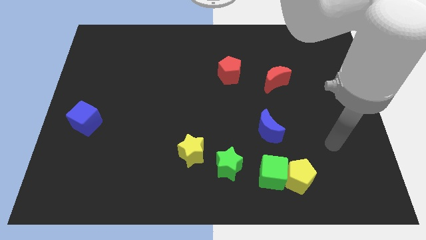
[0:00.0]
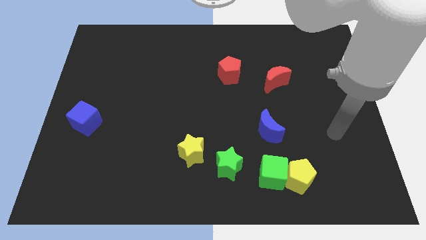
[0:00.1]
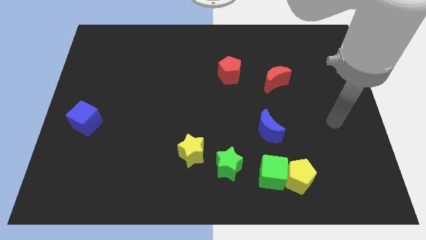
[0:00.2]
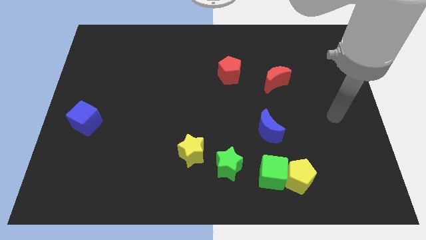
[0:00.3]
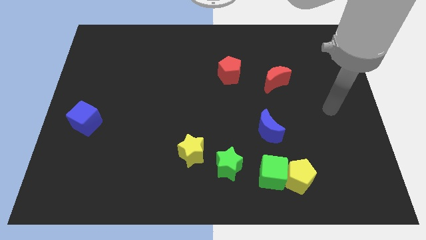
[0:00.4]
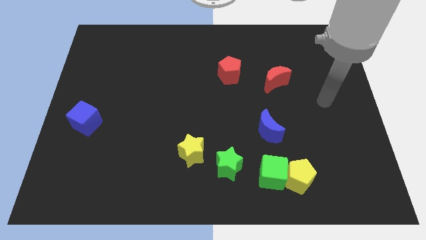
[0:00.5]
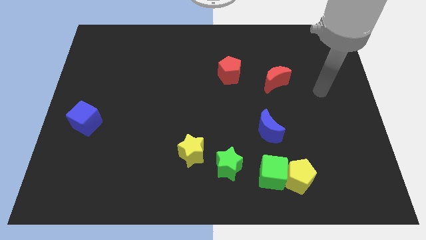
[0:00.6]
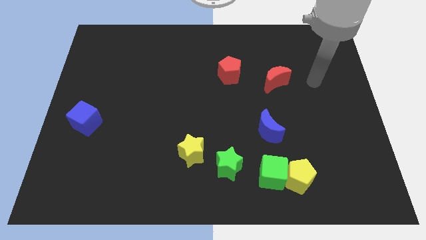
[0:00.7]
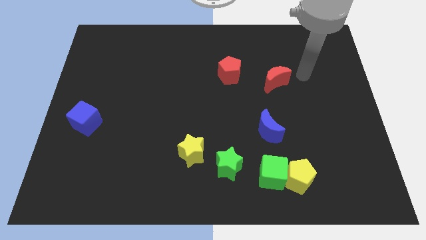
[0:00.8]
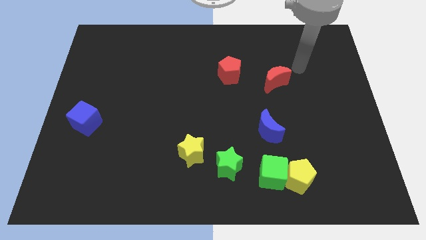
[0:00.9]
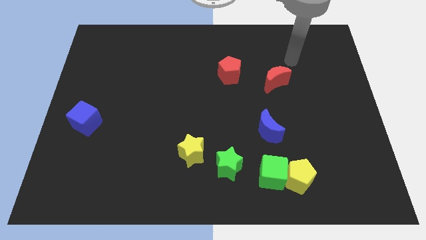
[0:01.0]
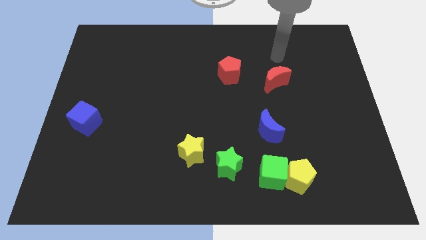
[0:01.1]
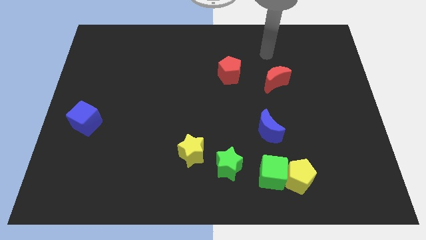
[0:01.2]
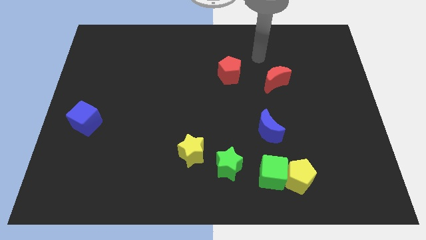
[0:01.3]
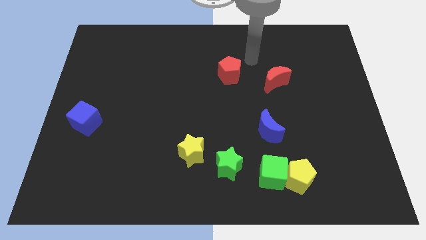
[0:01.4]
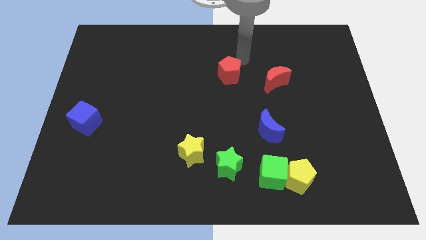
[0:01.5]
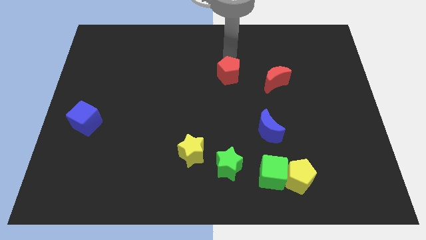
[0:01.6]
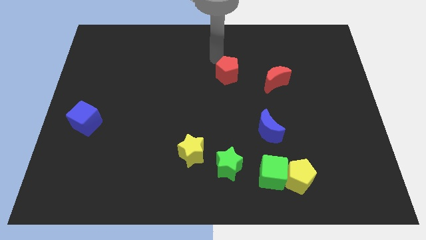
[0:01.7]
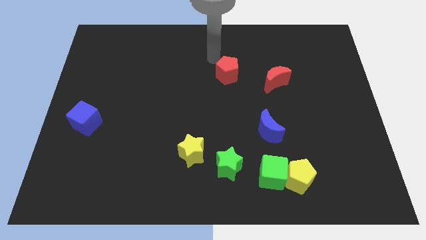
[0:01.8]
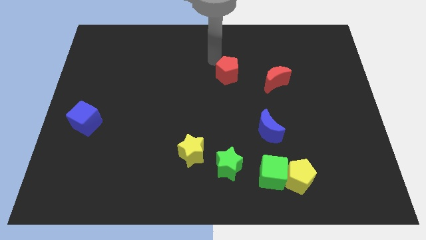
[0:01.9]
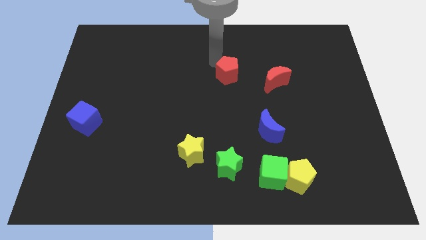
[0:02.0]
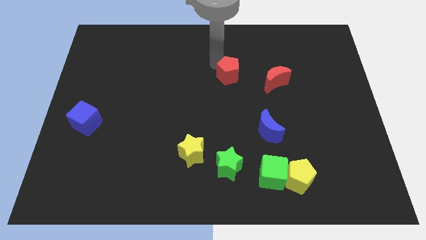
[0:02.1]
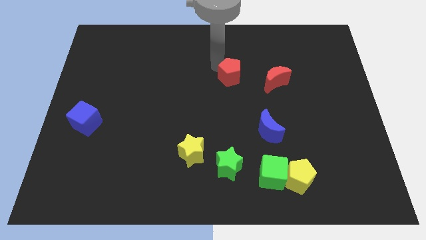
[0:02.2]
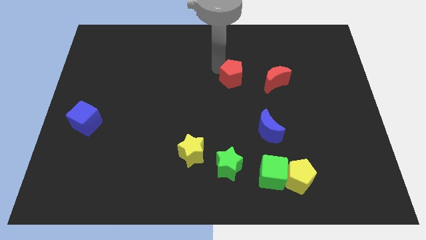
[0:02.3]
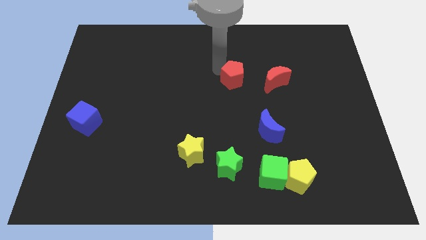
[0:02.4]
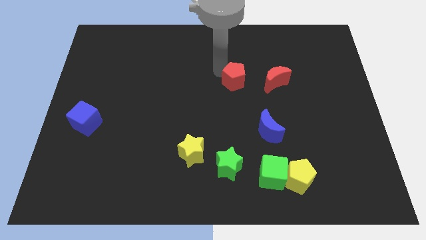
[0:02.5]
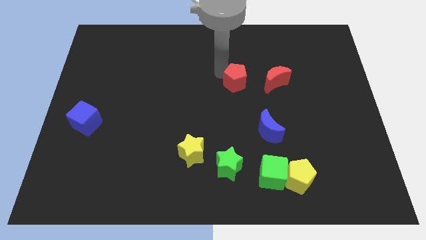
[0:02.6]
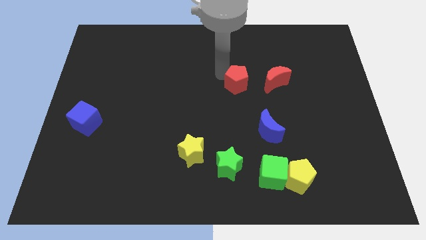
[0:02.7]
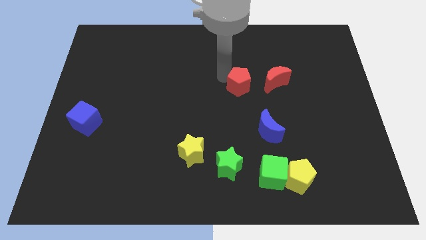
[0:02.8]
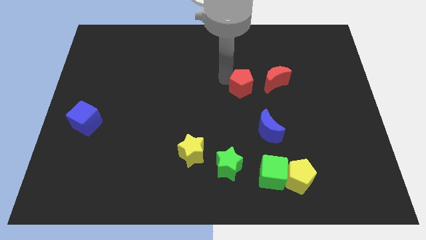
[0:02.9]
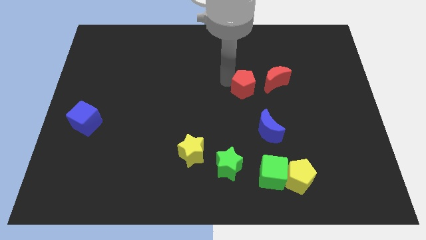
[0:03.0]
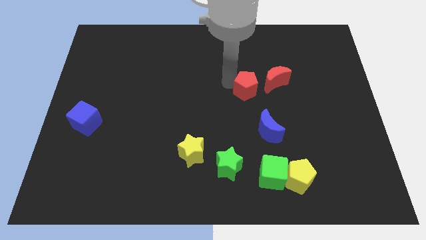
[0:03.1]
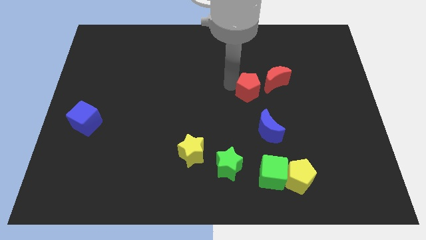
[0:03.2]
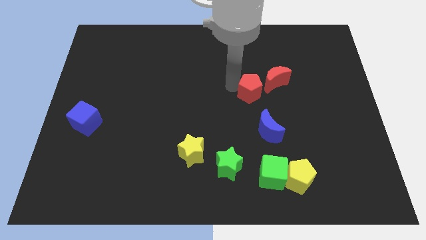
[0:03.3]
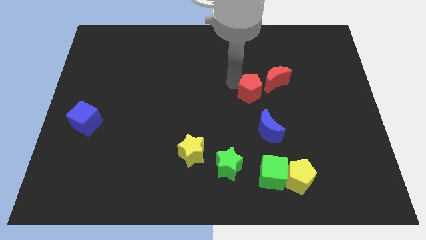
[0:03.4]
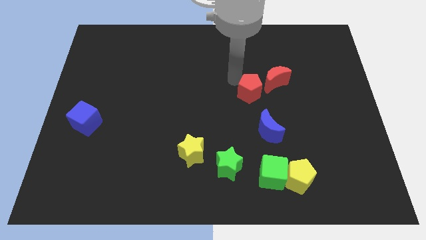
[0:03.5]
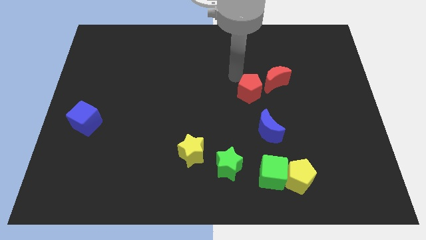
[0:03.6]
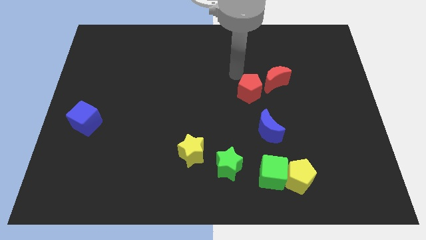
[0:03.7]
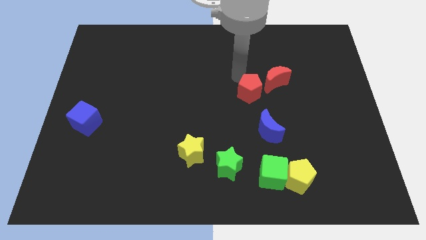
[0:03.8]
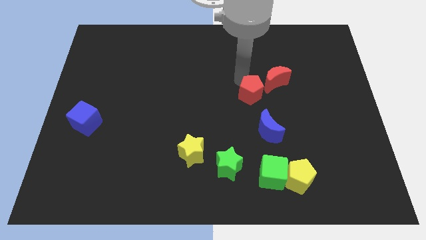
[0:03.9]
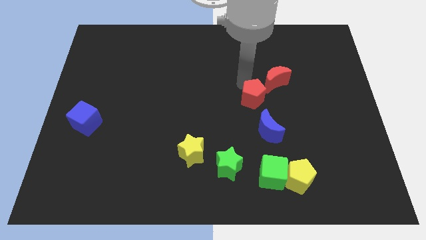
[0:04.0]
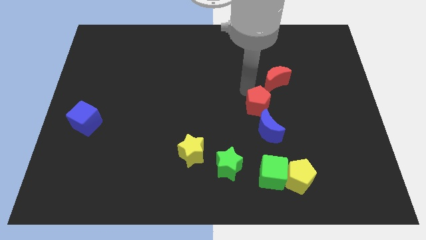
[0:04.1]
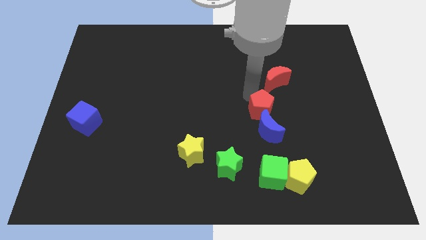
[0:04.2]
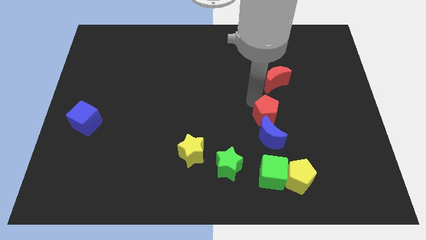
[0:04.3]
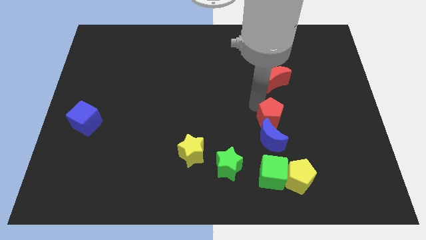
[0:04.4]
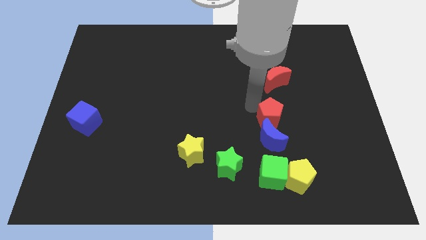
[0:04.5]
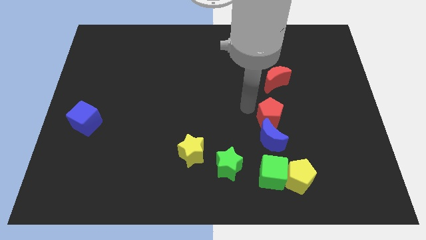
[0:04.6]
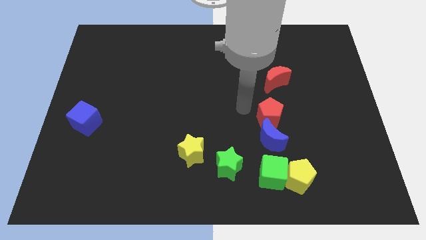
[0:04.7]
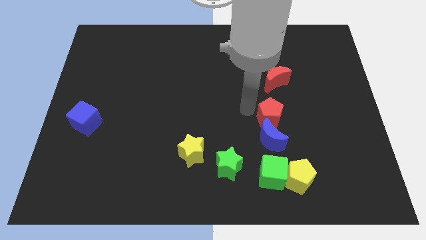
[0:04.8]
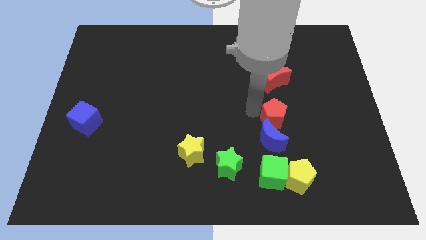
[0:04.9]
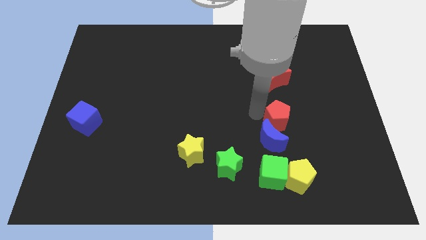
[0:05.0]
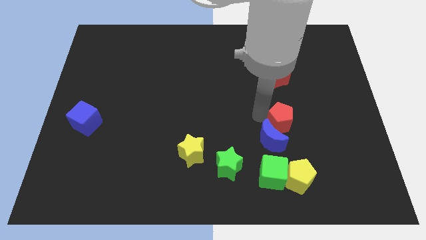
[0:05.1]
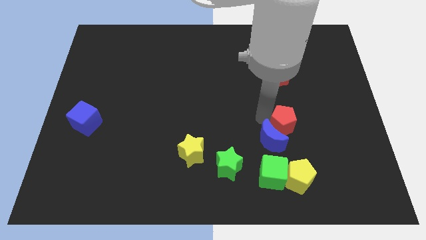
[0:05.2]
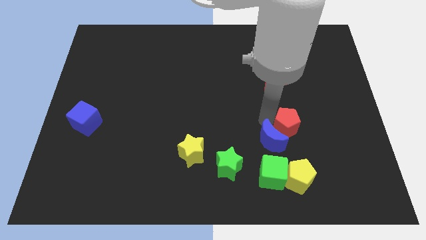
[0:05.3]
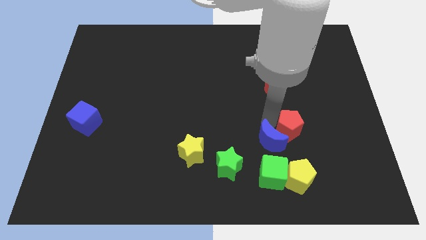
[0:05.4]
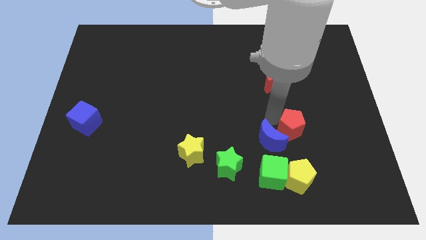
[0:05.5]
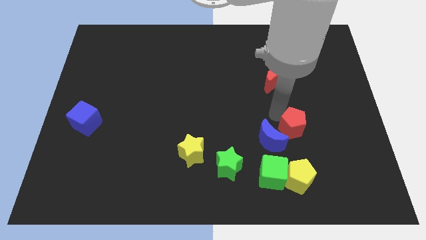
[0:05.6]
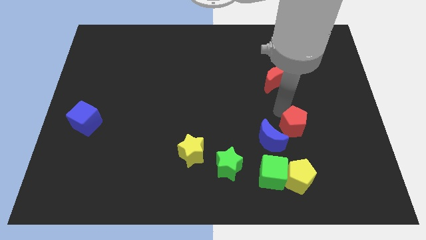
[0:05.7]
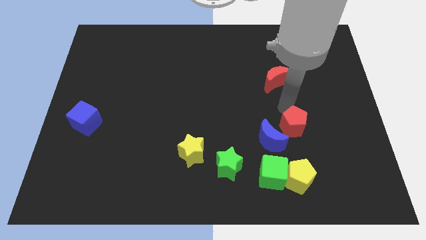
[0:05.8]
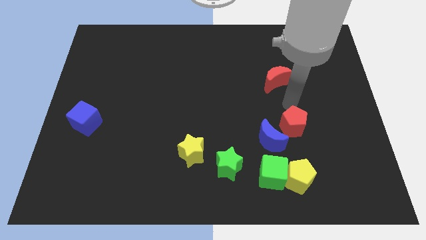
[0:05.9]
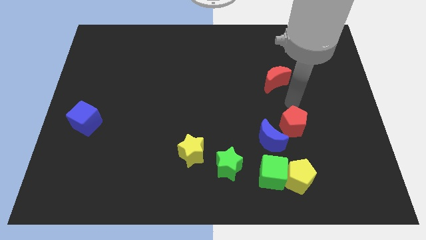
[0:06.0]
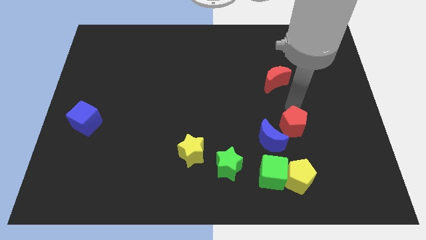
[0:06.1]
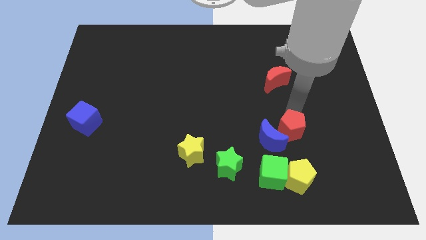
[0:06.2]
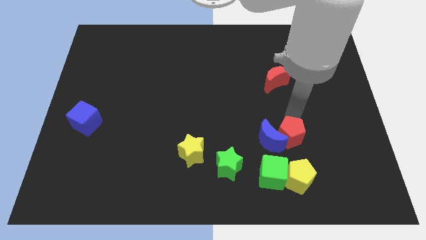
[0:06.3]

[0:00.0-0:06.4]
slide the red pentagon to the top right side of the green cube

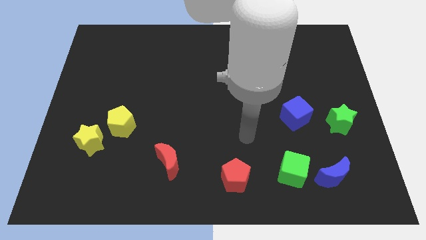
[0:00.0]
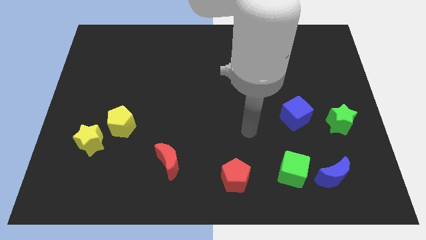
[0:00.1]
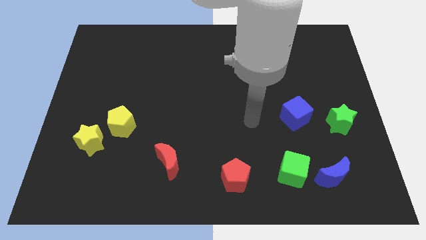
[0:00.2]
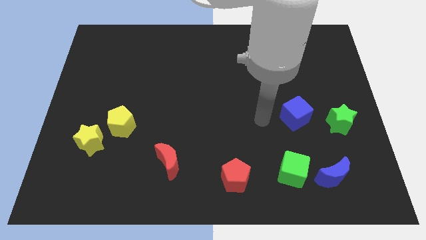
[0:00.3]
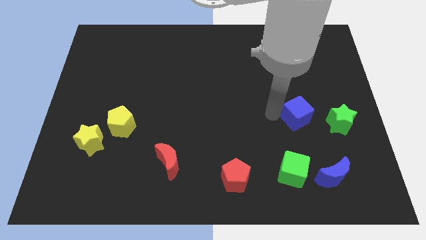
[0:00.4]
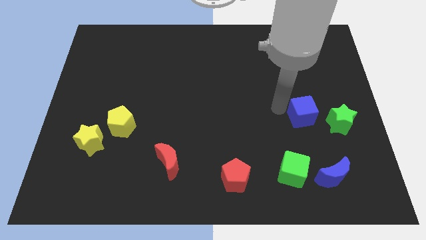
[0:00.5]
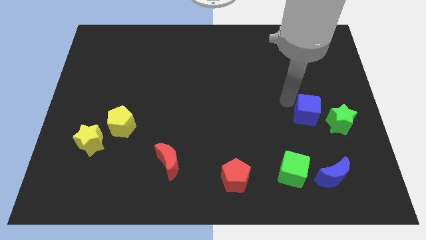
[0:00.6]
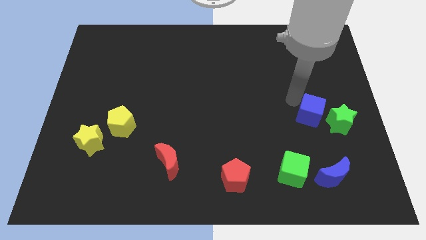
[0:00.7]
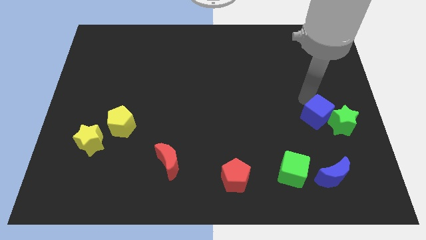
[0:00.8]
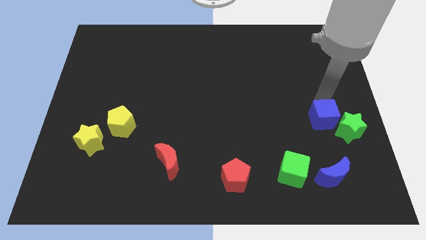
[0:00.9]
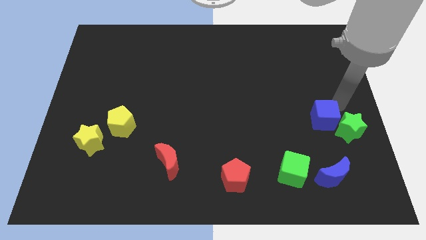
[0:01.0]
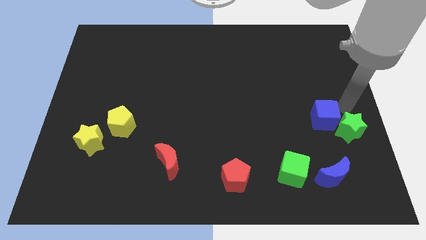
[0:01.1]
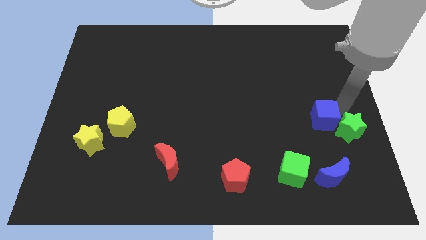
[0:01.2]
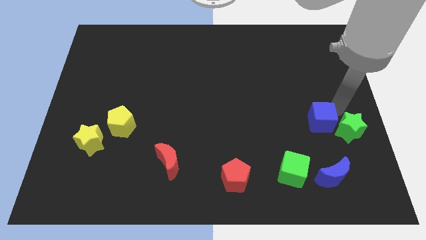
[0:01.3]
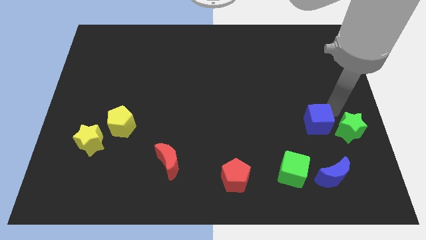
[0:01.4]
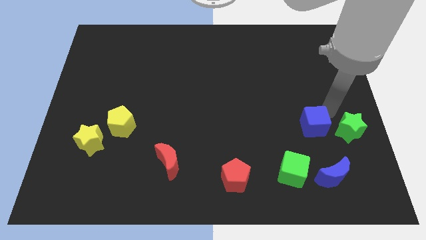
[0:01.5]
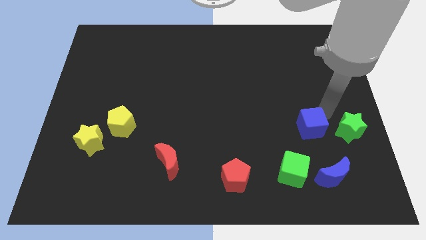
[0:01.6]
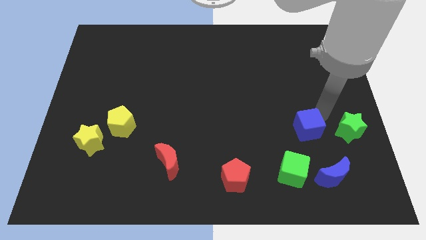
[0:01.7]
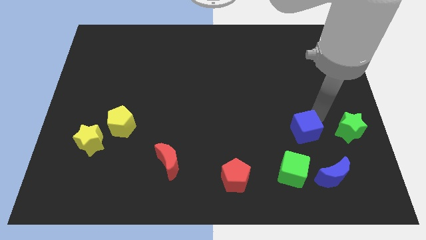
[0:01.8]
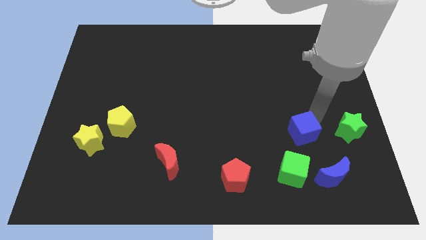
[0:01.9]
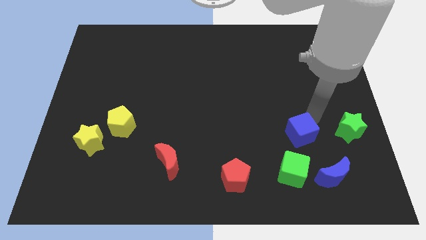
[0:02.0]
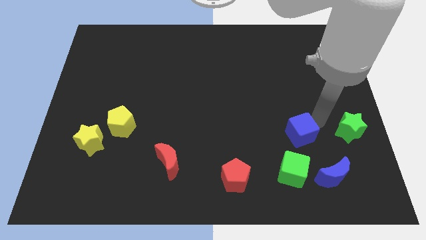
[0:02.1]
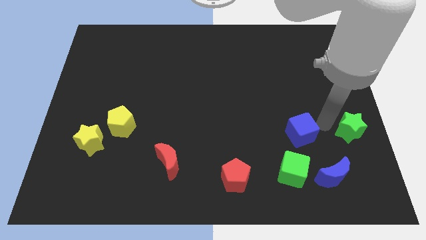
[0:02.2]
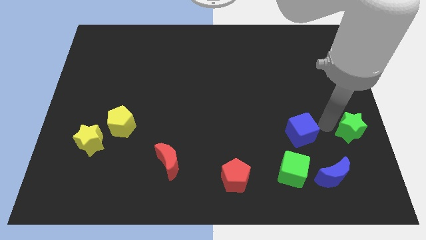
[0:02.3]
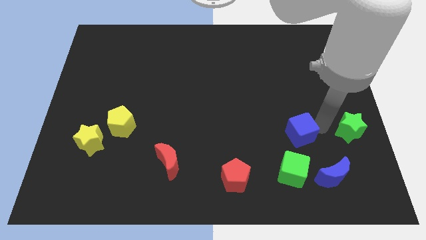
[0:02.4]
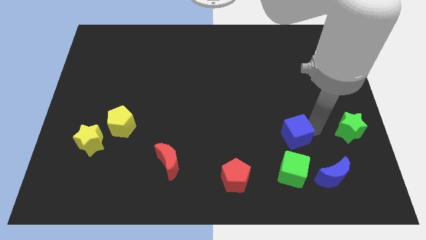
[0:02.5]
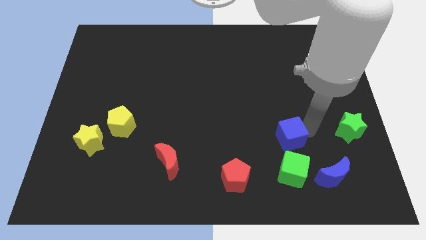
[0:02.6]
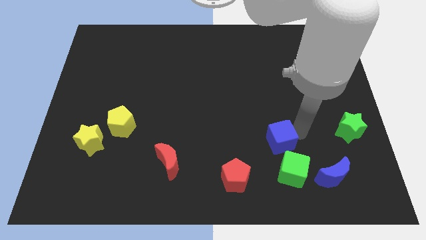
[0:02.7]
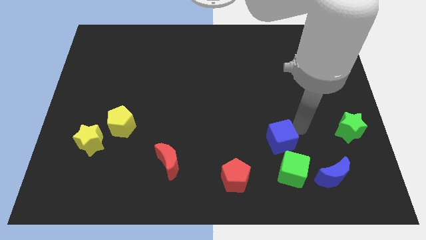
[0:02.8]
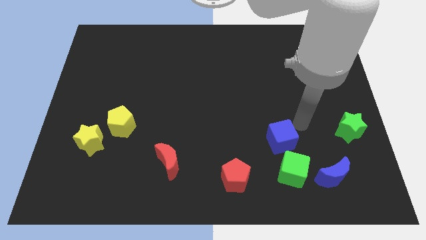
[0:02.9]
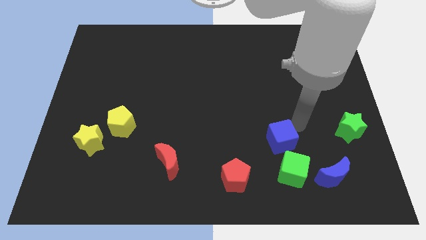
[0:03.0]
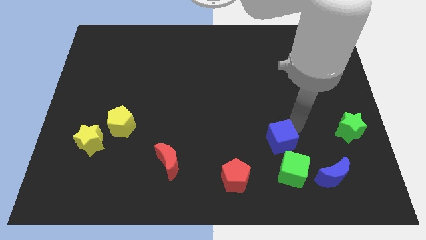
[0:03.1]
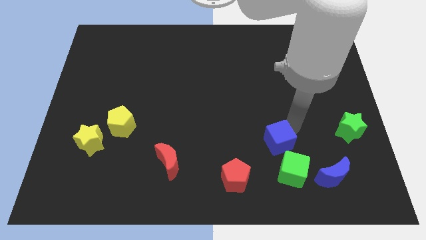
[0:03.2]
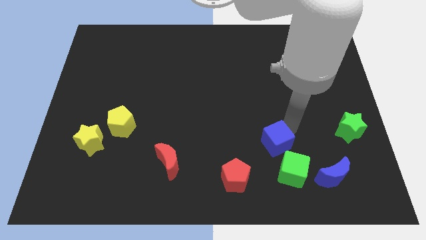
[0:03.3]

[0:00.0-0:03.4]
push the blue cube diagonally up and to the right of the red pentagon
